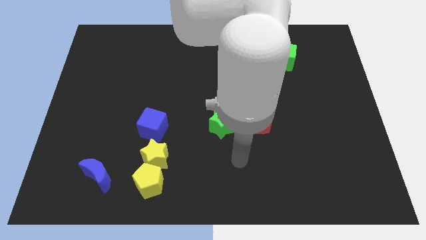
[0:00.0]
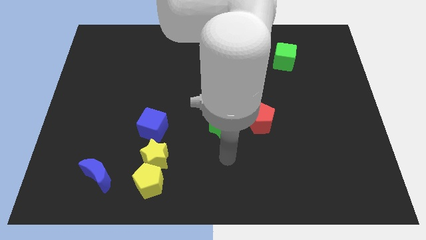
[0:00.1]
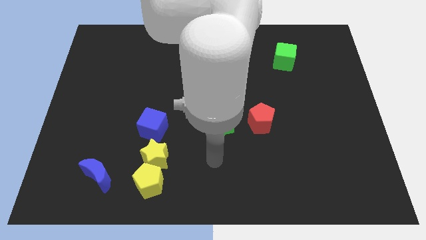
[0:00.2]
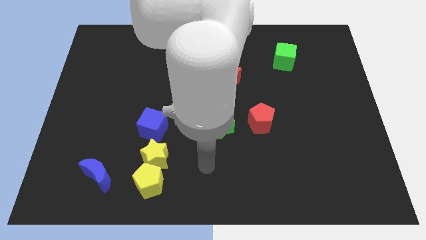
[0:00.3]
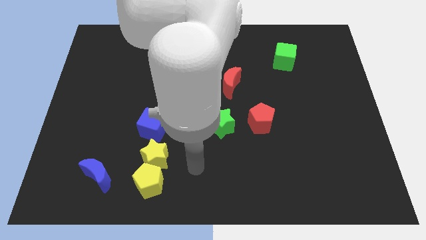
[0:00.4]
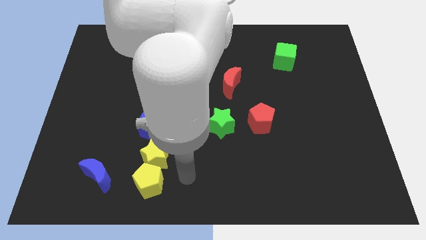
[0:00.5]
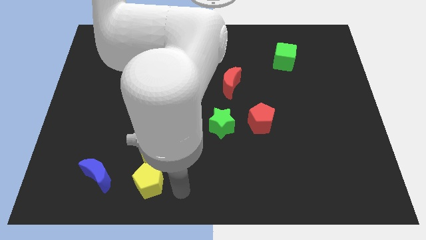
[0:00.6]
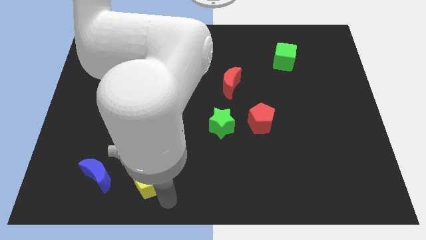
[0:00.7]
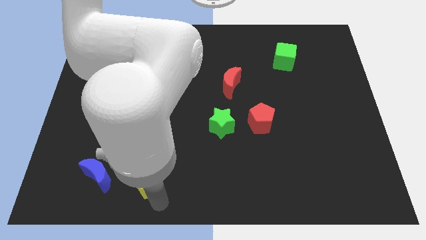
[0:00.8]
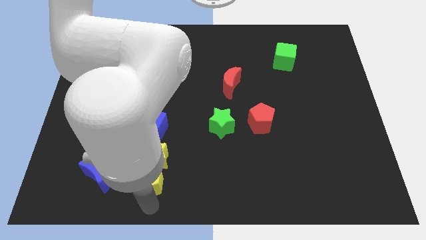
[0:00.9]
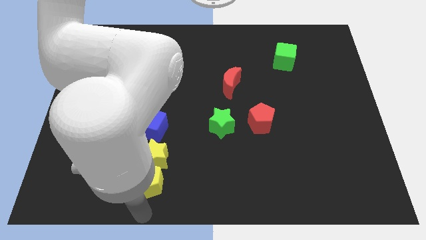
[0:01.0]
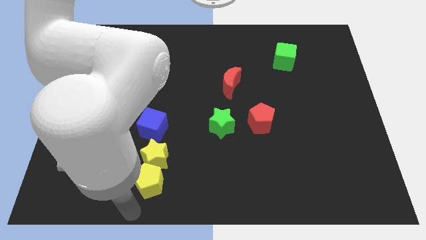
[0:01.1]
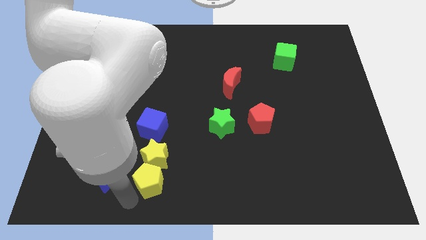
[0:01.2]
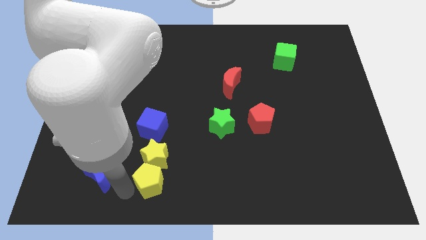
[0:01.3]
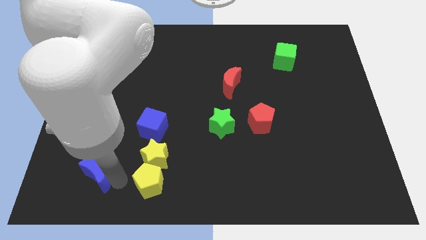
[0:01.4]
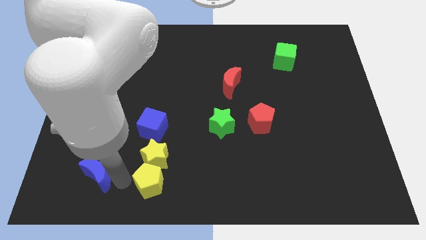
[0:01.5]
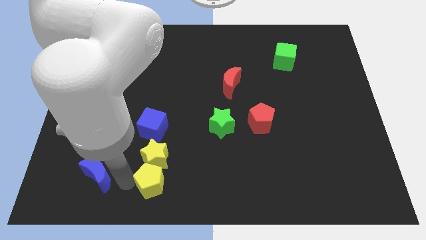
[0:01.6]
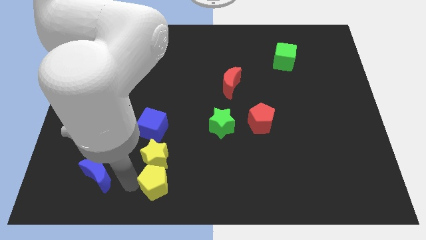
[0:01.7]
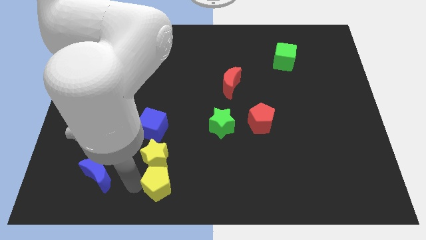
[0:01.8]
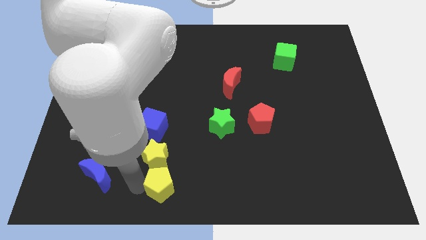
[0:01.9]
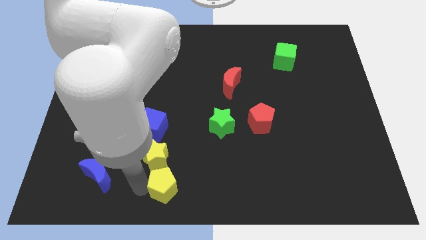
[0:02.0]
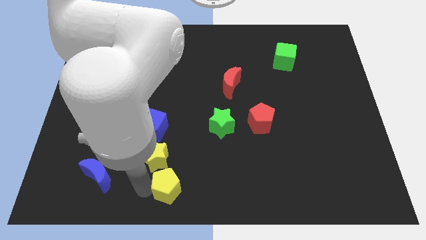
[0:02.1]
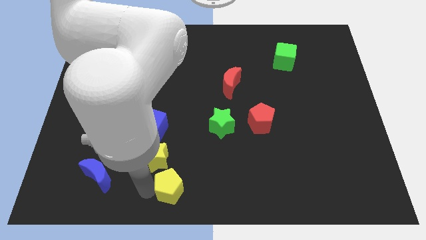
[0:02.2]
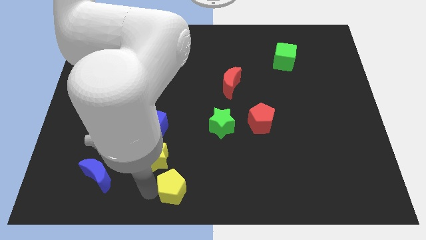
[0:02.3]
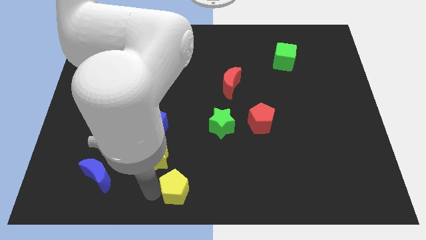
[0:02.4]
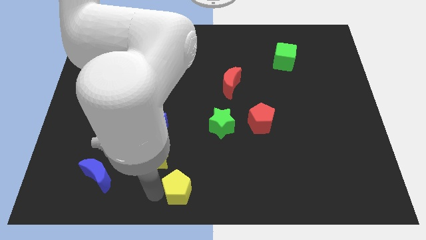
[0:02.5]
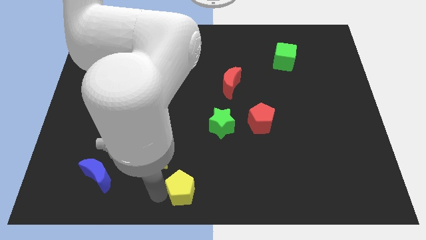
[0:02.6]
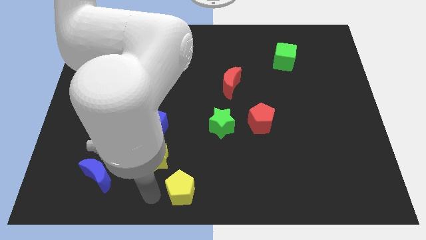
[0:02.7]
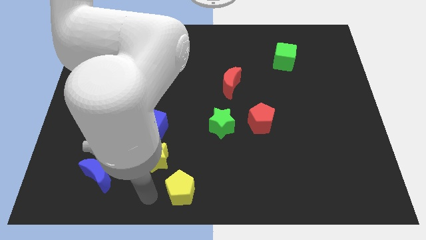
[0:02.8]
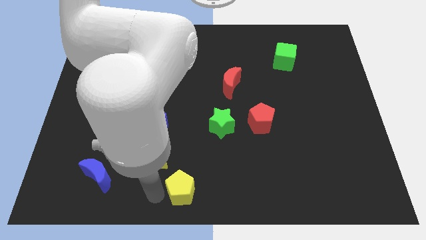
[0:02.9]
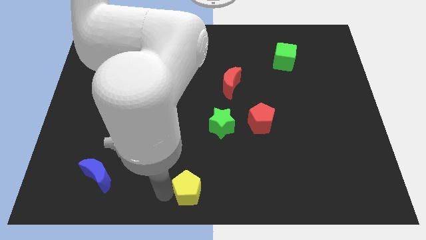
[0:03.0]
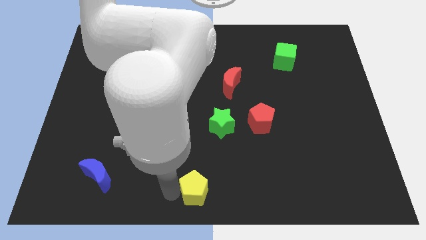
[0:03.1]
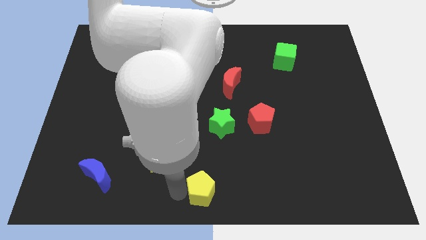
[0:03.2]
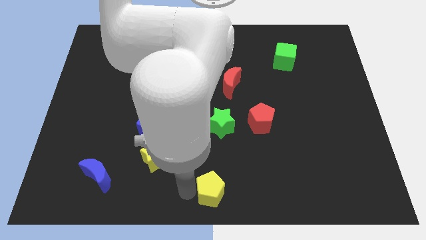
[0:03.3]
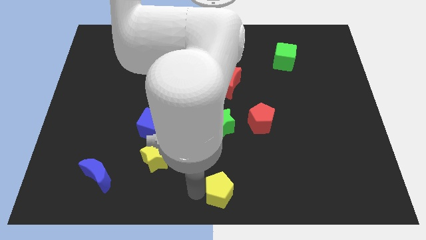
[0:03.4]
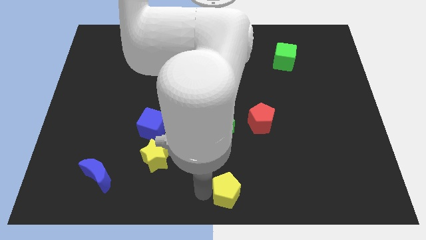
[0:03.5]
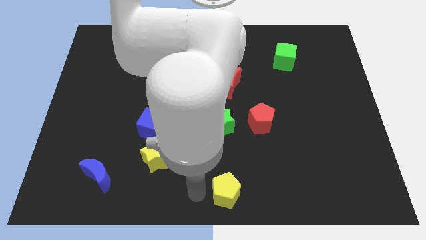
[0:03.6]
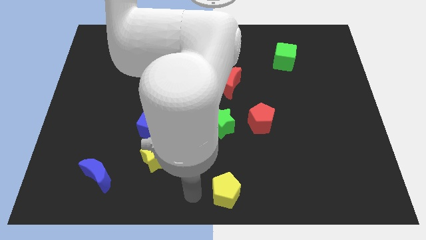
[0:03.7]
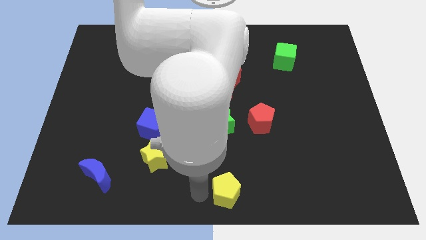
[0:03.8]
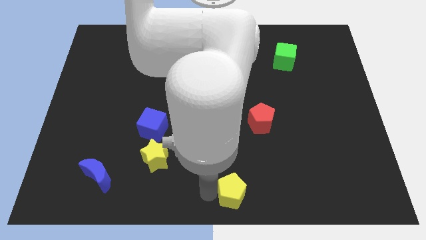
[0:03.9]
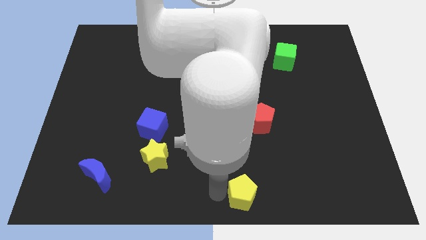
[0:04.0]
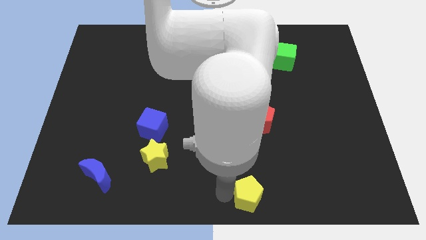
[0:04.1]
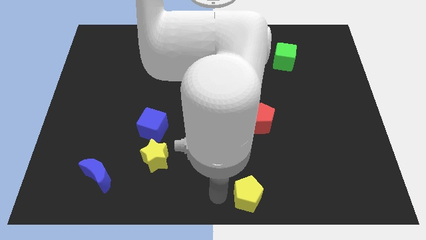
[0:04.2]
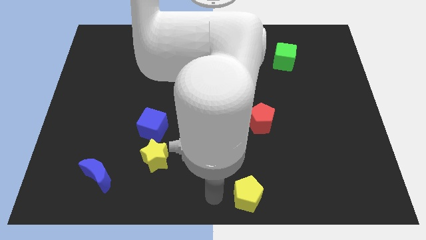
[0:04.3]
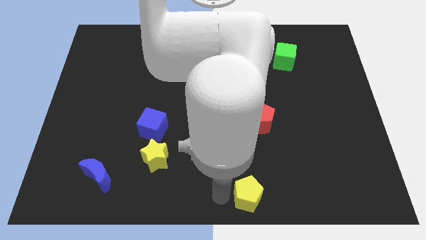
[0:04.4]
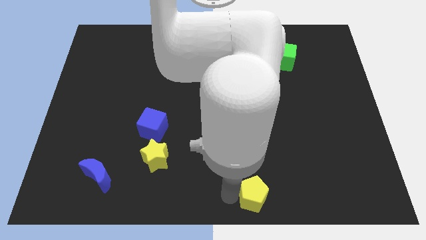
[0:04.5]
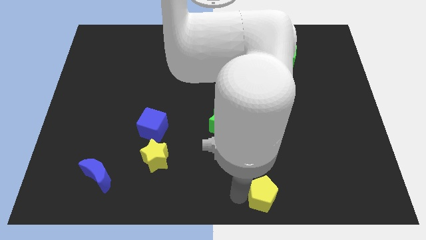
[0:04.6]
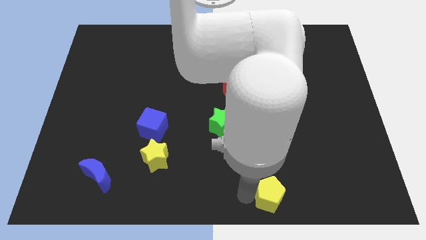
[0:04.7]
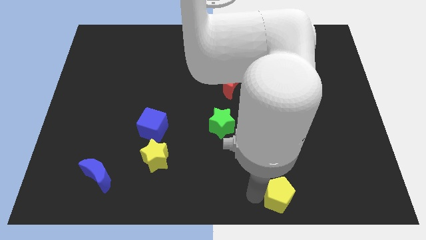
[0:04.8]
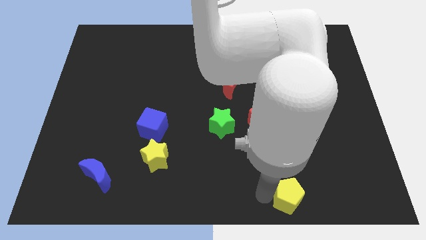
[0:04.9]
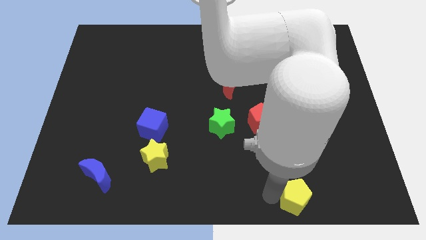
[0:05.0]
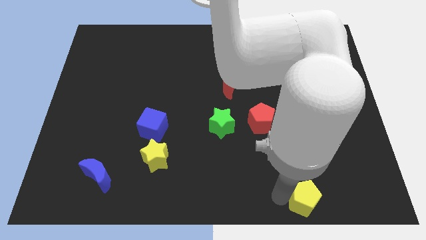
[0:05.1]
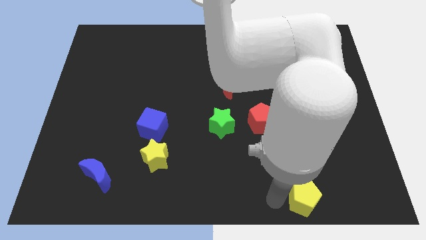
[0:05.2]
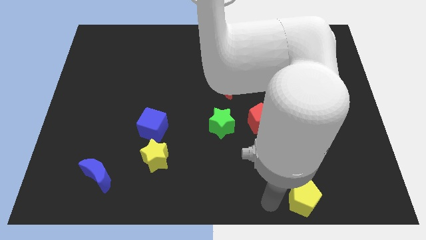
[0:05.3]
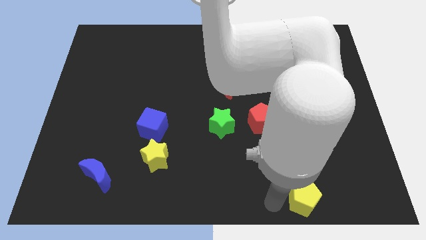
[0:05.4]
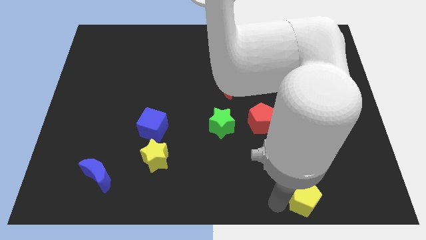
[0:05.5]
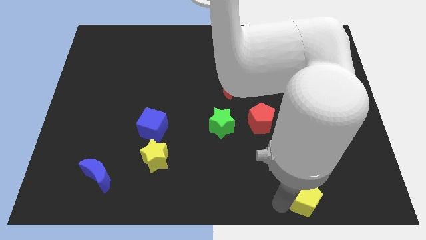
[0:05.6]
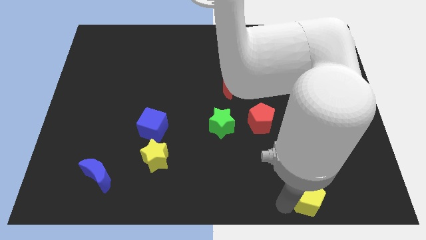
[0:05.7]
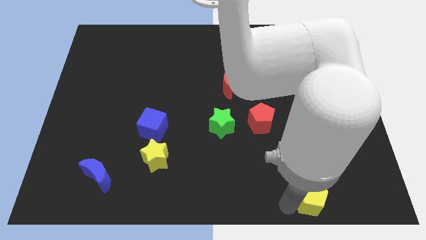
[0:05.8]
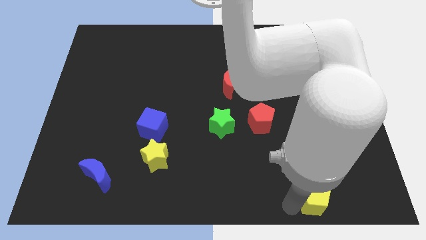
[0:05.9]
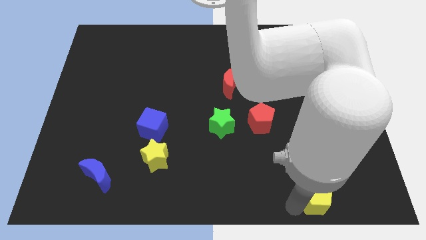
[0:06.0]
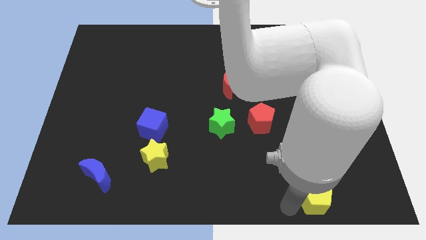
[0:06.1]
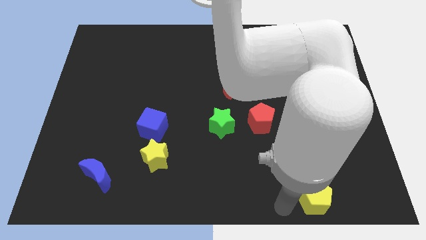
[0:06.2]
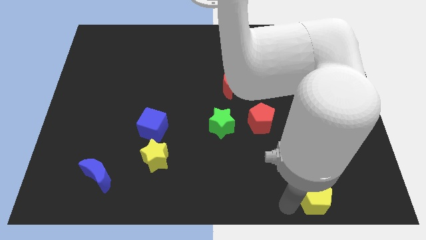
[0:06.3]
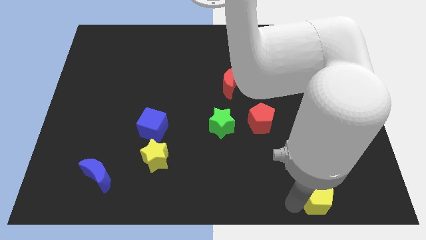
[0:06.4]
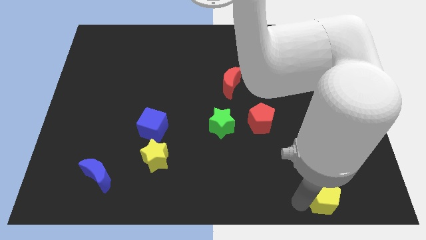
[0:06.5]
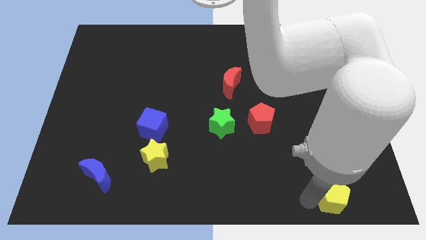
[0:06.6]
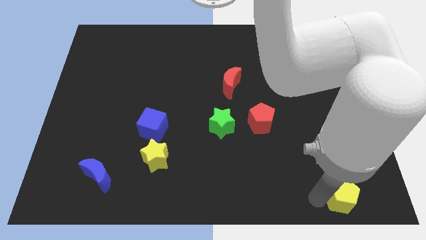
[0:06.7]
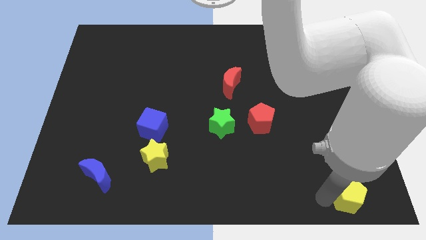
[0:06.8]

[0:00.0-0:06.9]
move the yellow pentagon to the lower right corner

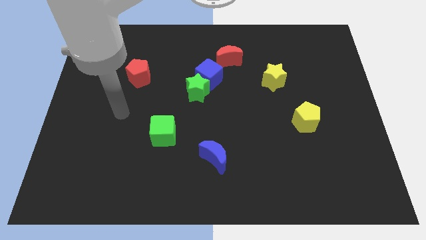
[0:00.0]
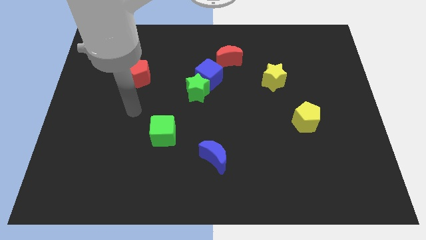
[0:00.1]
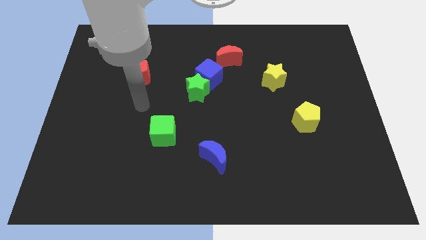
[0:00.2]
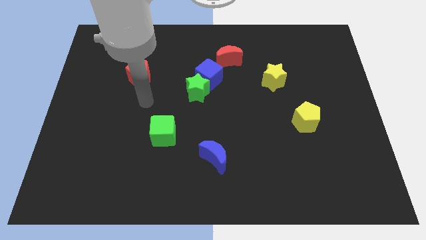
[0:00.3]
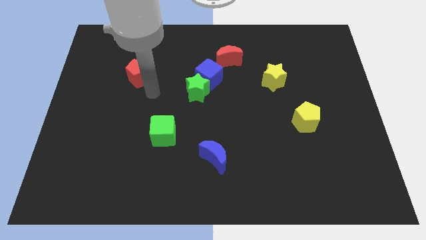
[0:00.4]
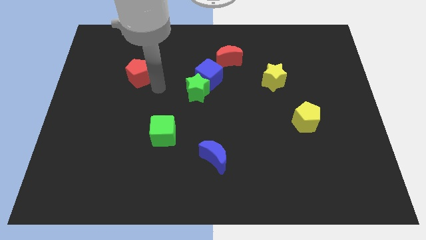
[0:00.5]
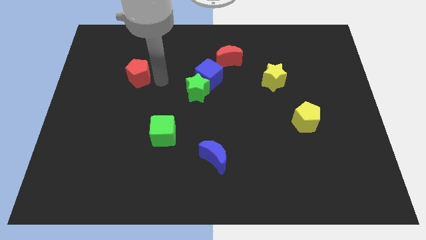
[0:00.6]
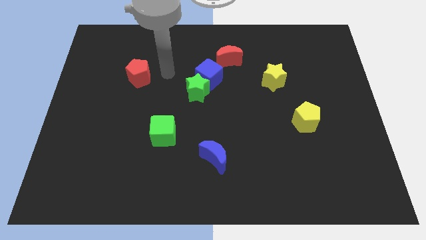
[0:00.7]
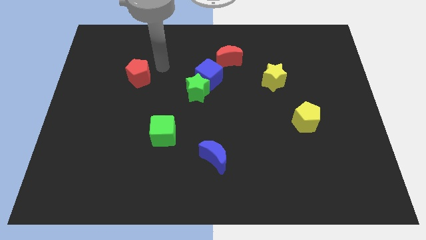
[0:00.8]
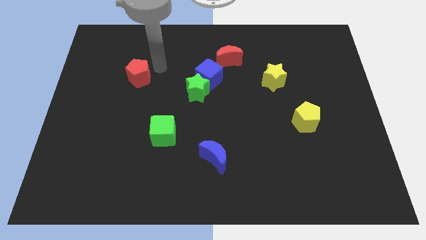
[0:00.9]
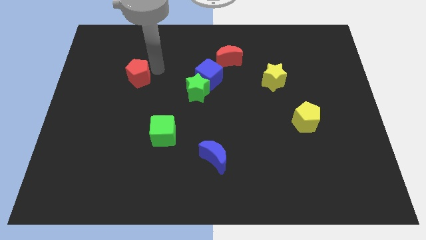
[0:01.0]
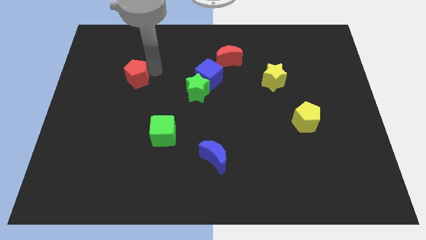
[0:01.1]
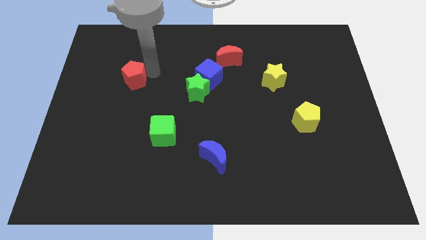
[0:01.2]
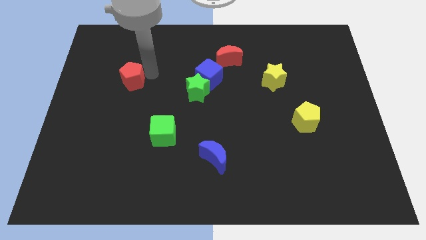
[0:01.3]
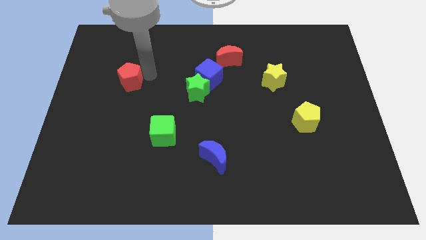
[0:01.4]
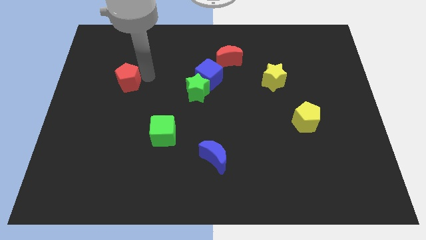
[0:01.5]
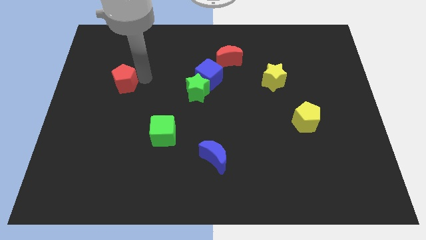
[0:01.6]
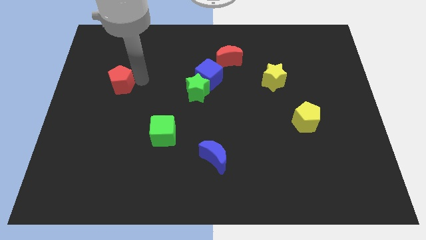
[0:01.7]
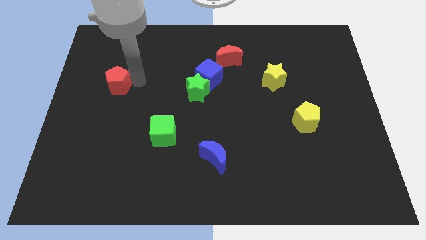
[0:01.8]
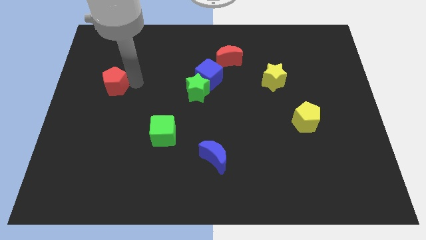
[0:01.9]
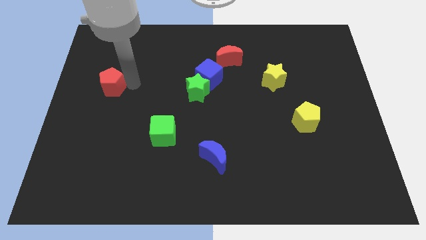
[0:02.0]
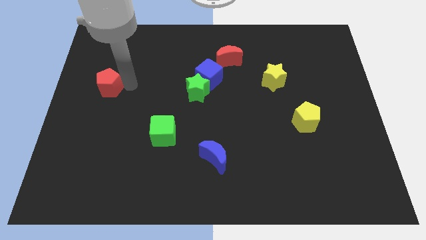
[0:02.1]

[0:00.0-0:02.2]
push the red pentagon to the left side
